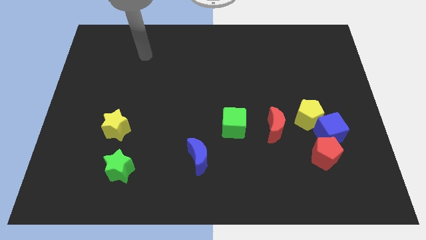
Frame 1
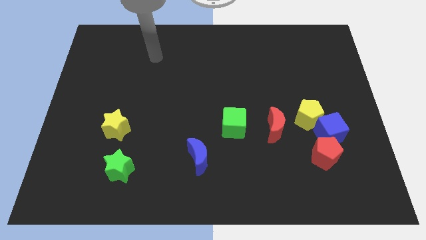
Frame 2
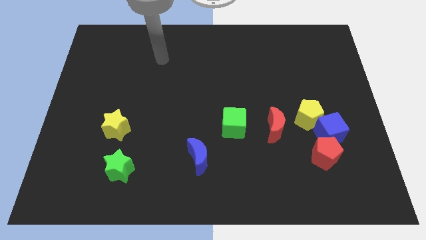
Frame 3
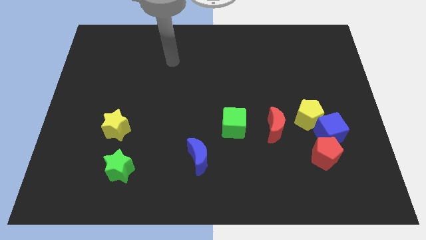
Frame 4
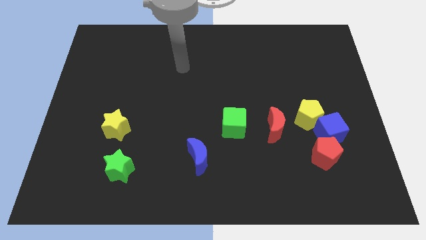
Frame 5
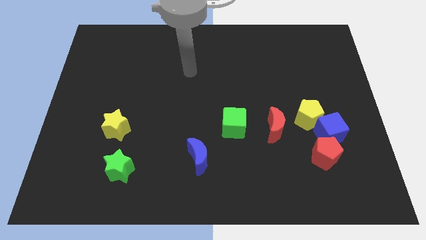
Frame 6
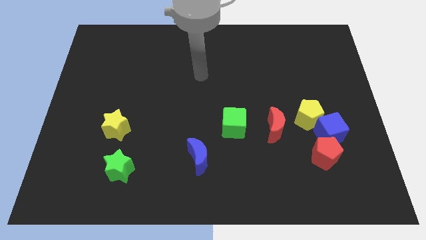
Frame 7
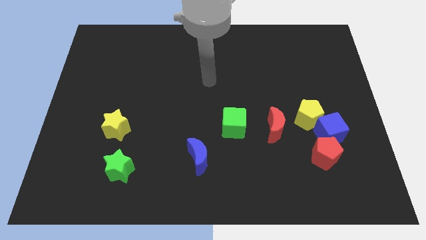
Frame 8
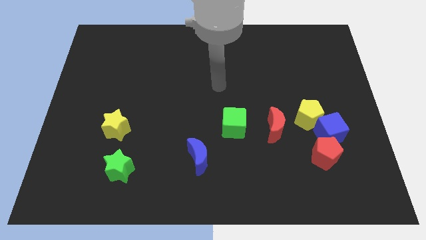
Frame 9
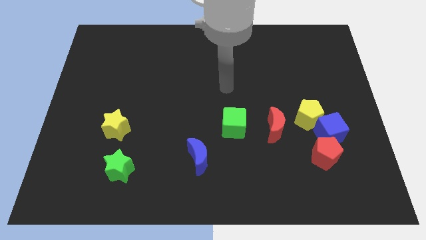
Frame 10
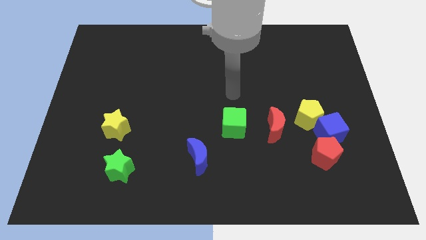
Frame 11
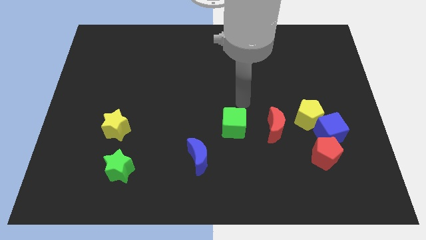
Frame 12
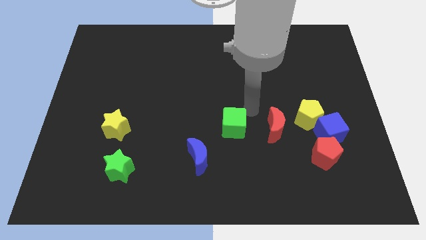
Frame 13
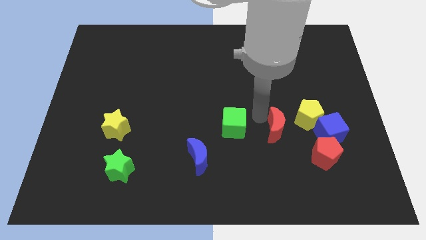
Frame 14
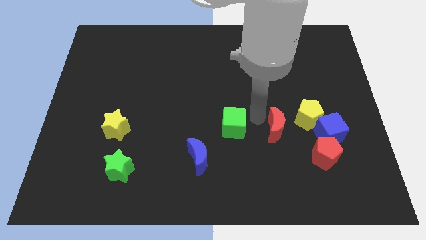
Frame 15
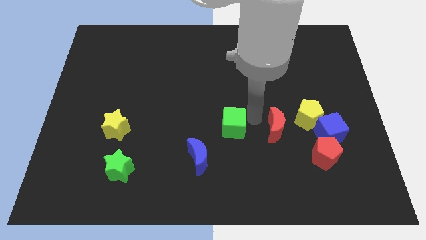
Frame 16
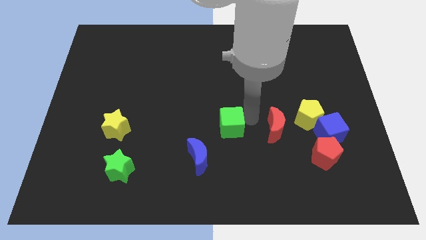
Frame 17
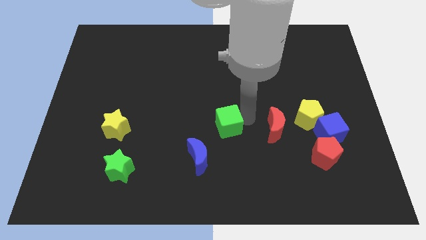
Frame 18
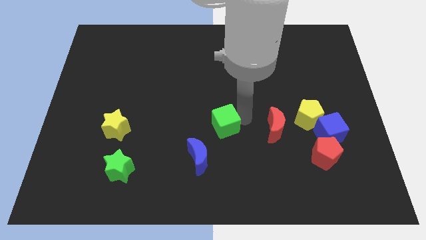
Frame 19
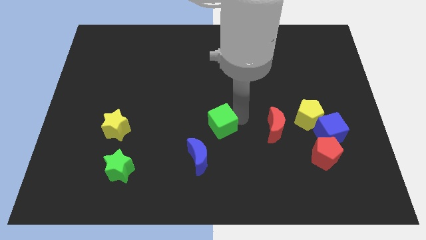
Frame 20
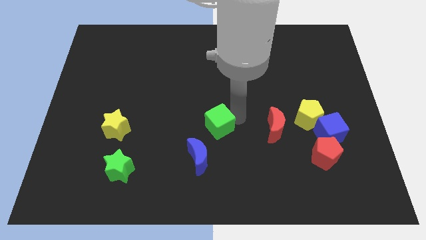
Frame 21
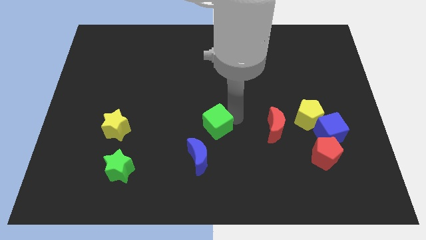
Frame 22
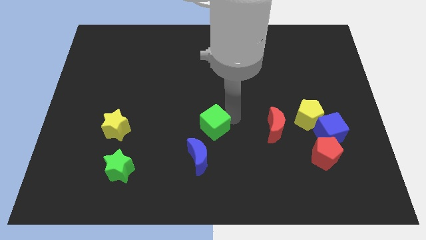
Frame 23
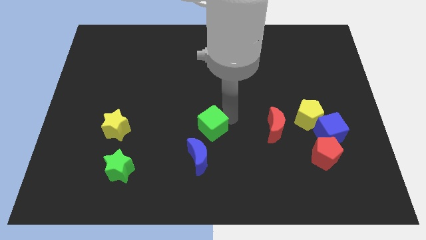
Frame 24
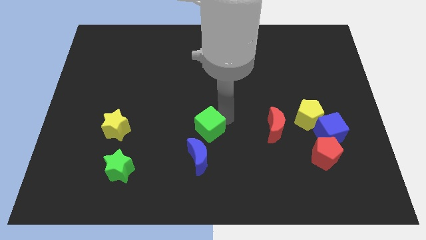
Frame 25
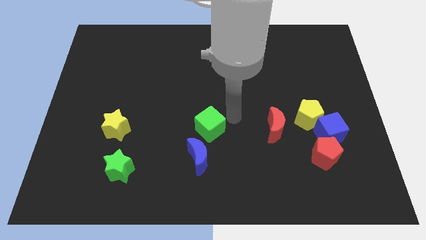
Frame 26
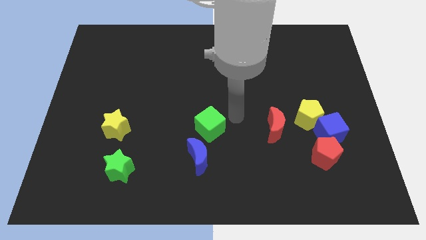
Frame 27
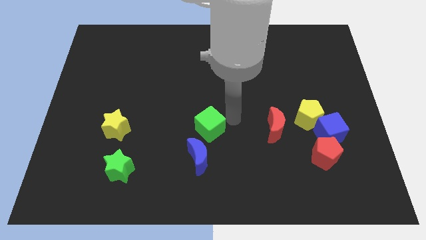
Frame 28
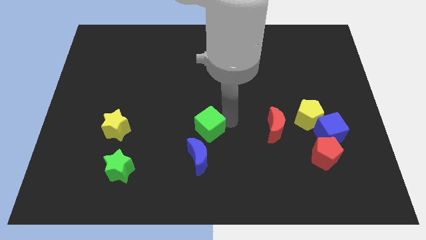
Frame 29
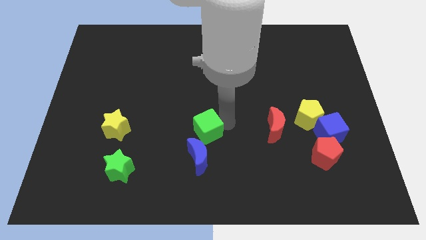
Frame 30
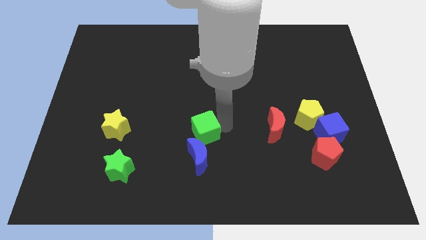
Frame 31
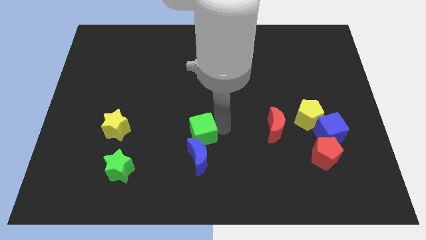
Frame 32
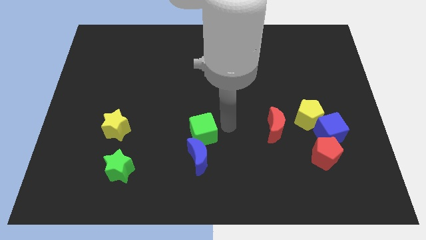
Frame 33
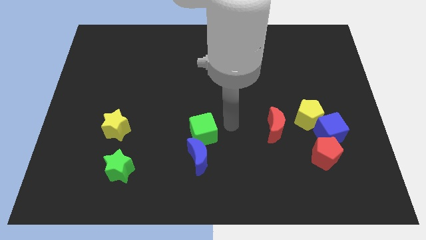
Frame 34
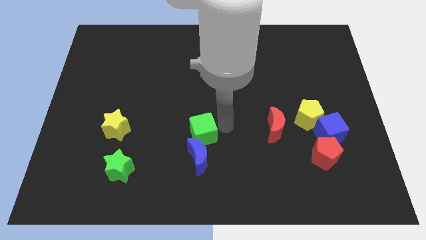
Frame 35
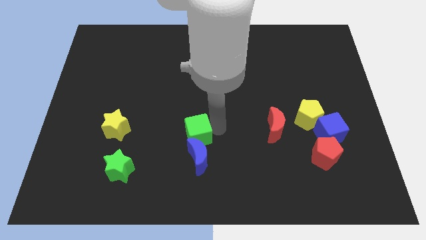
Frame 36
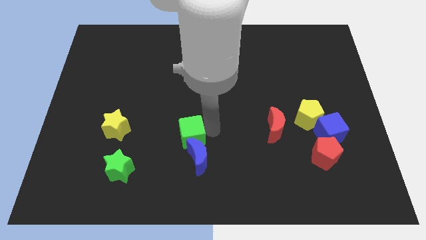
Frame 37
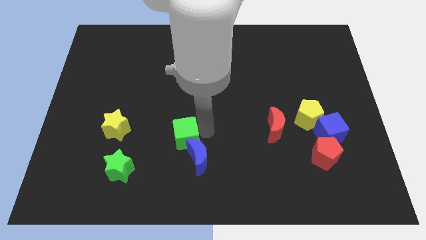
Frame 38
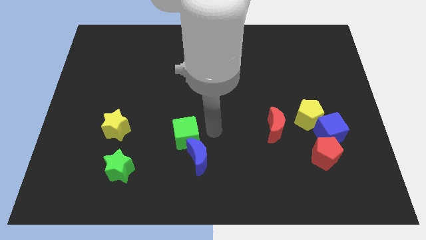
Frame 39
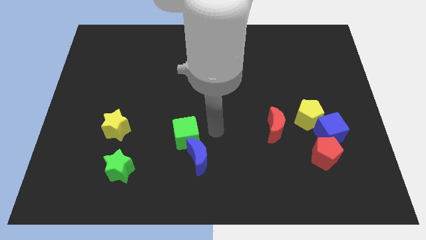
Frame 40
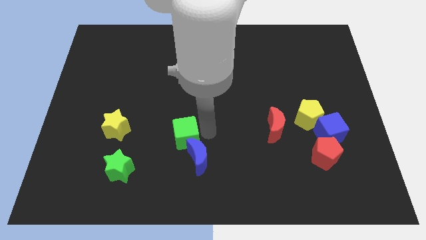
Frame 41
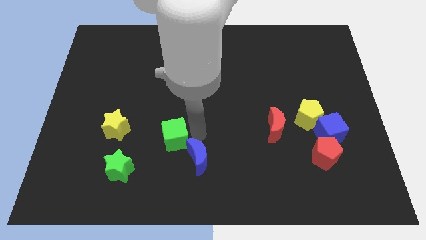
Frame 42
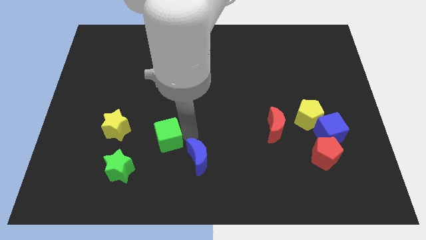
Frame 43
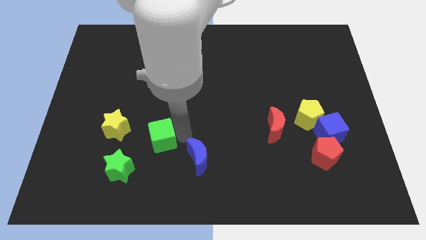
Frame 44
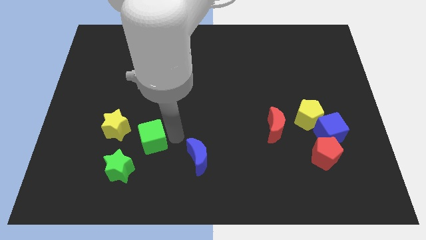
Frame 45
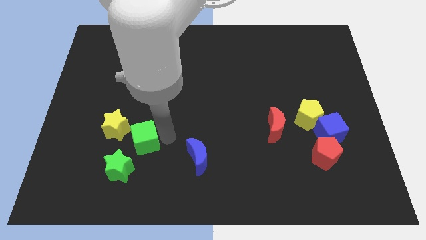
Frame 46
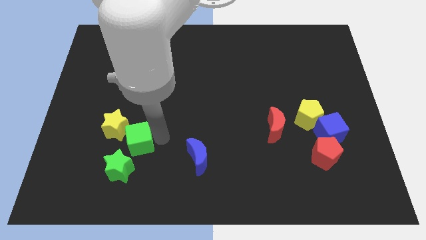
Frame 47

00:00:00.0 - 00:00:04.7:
slide the green cube left

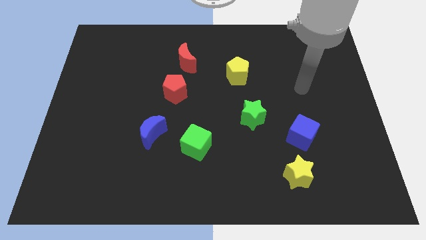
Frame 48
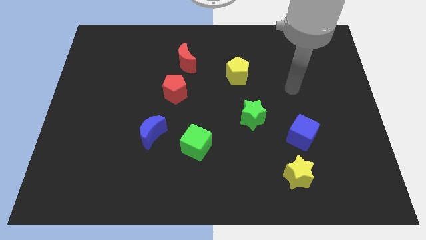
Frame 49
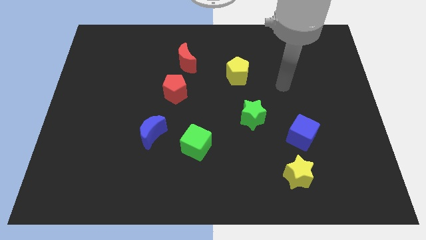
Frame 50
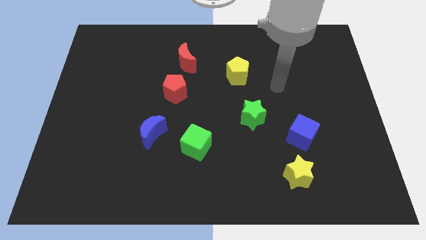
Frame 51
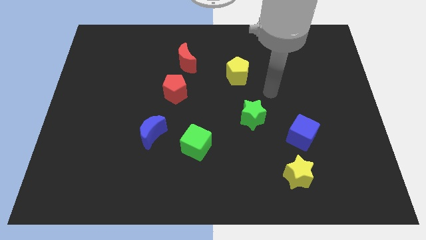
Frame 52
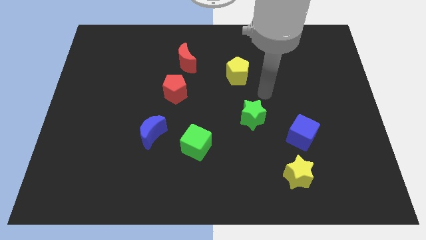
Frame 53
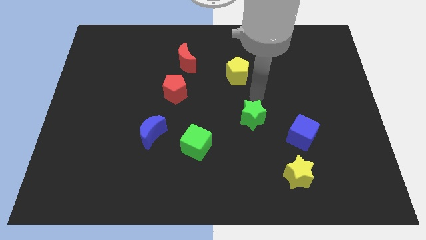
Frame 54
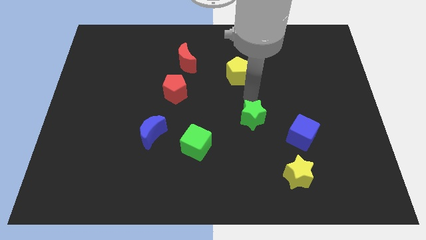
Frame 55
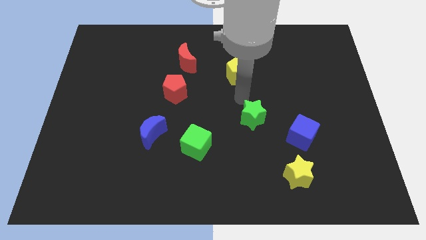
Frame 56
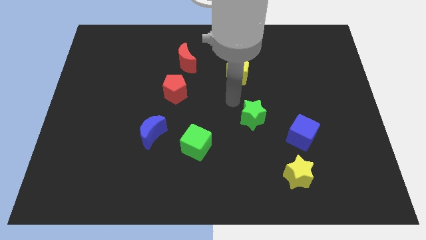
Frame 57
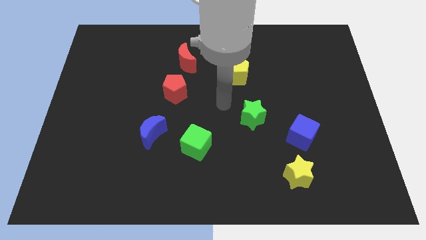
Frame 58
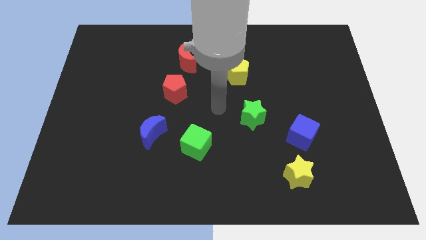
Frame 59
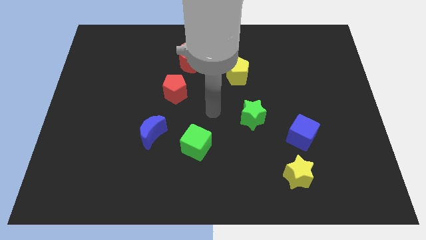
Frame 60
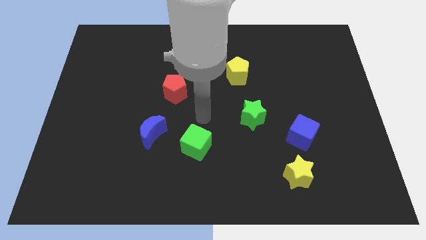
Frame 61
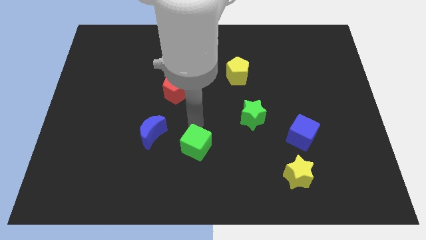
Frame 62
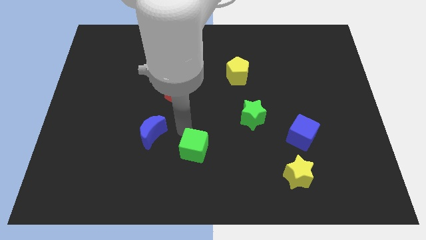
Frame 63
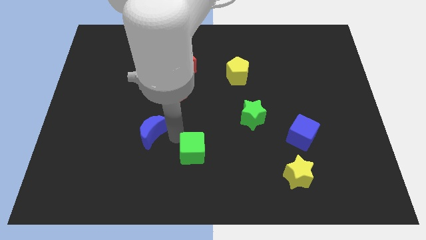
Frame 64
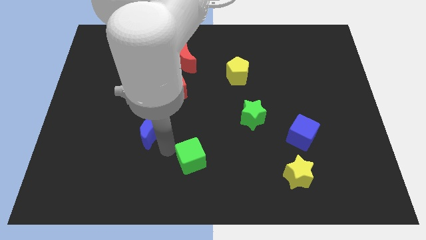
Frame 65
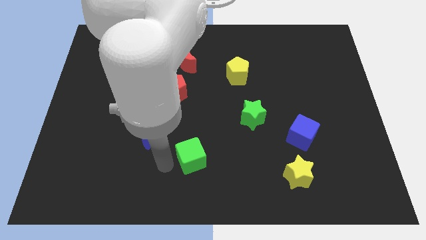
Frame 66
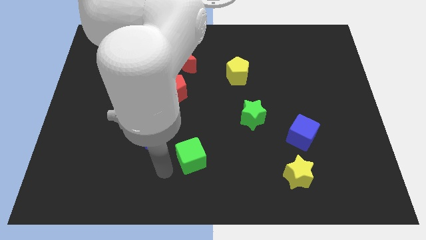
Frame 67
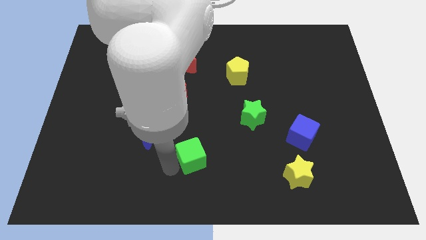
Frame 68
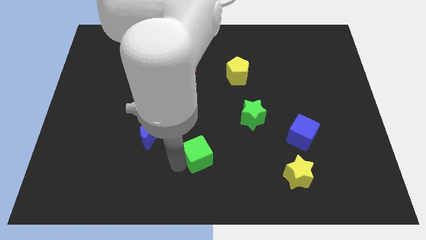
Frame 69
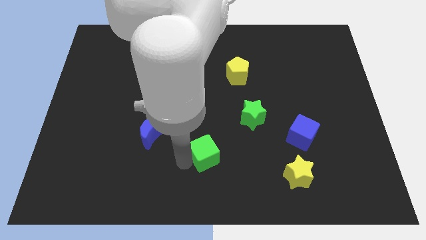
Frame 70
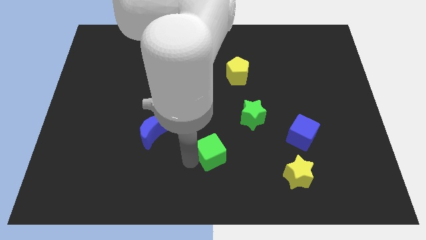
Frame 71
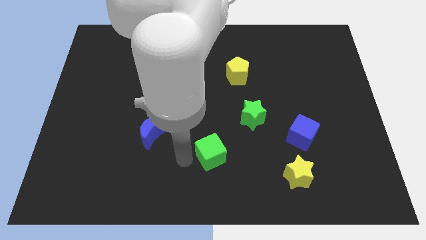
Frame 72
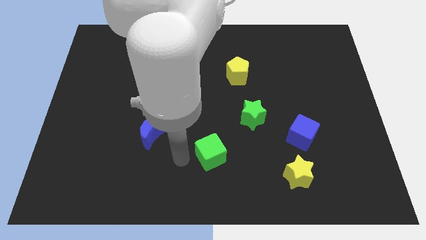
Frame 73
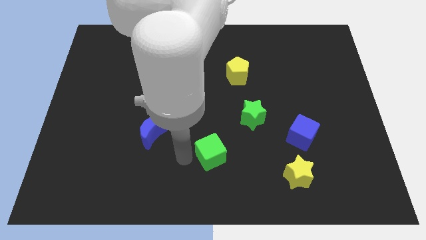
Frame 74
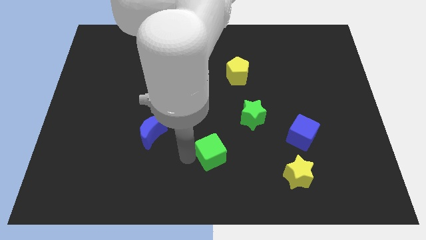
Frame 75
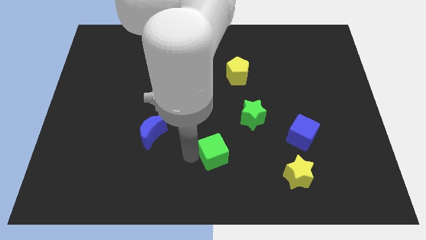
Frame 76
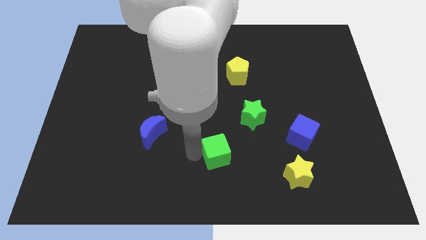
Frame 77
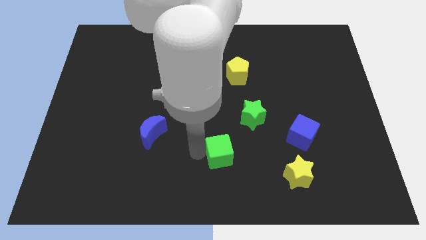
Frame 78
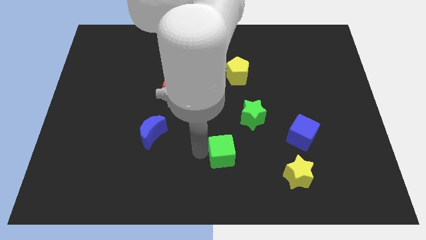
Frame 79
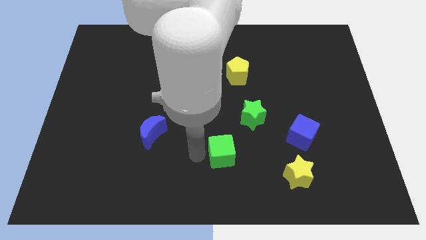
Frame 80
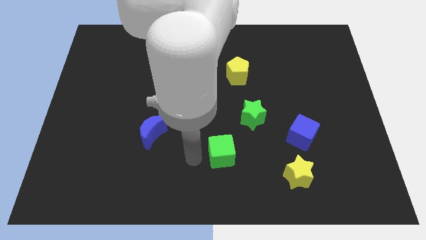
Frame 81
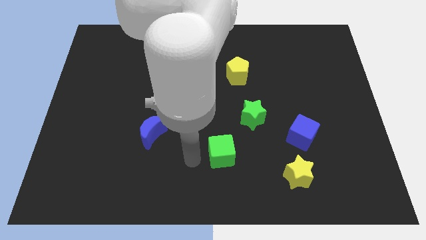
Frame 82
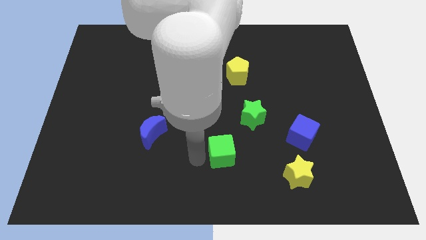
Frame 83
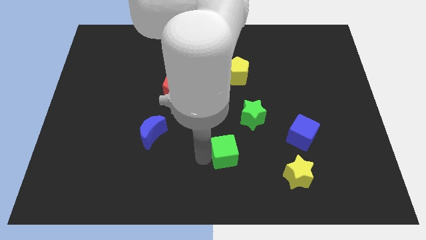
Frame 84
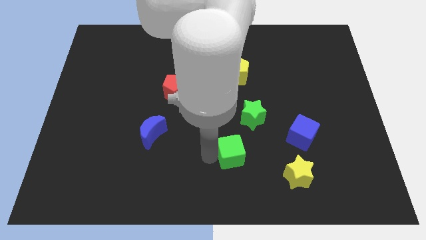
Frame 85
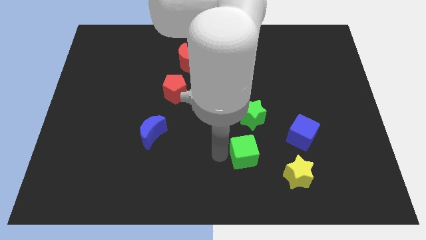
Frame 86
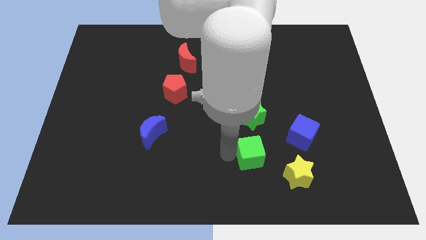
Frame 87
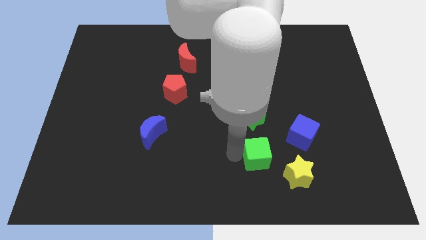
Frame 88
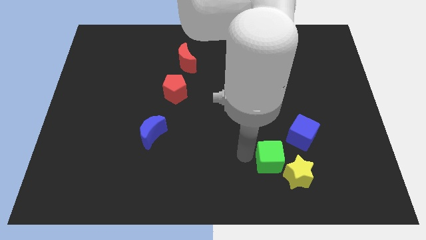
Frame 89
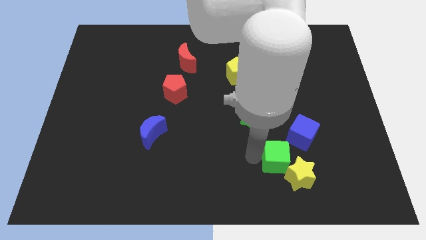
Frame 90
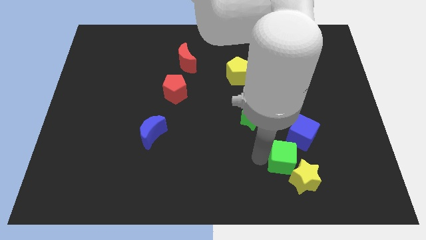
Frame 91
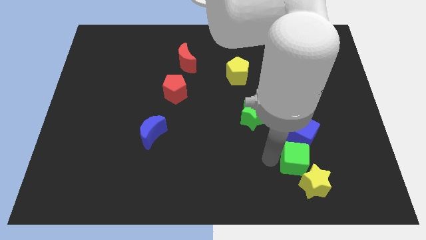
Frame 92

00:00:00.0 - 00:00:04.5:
slide the green cube right
